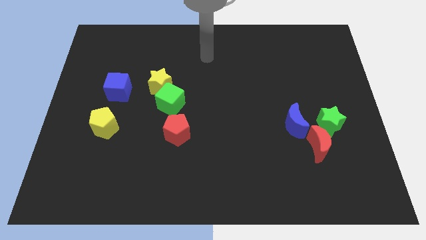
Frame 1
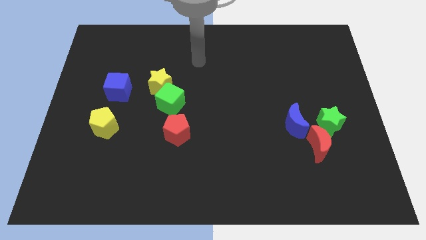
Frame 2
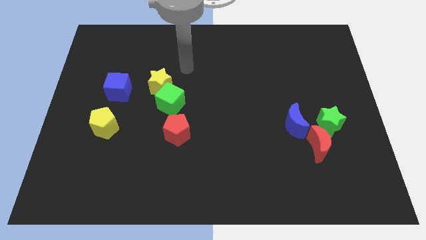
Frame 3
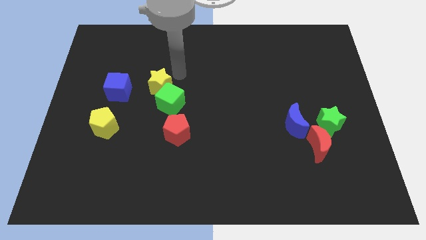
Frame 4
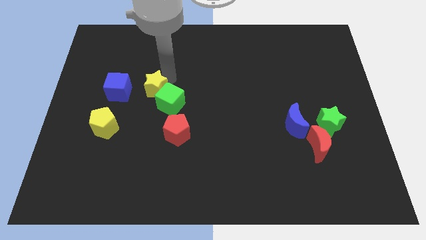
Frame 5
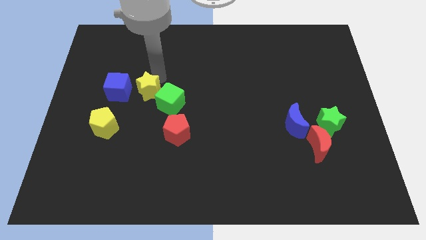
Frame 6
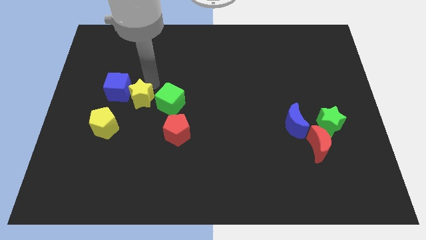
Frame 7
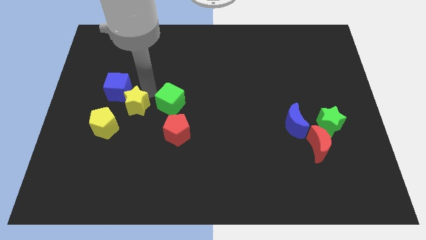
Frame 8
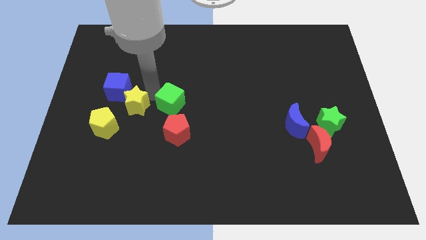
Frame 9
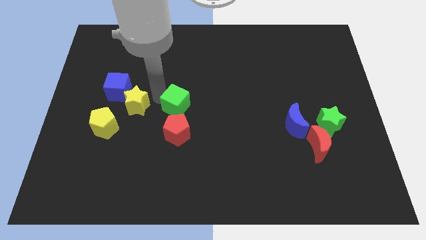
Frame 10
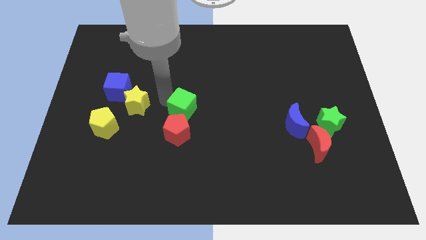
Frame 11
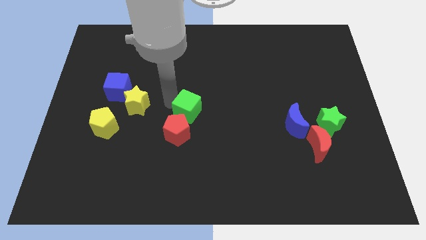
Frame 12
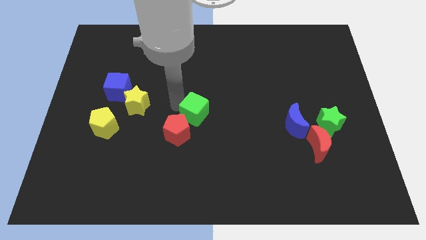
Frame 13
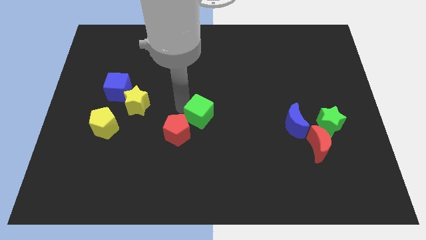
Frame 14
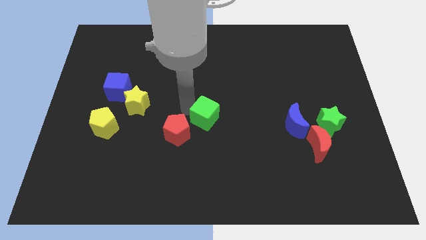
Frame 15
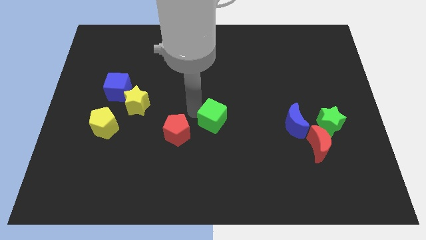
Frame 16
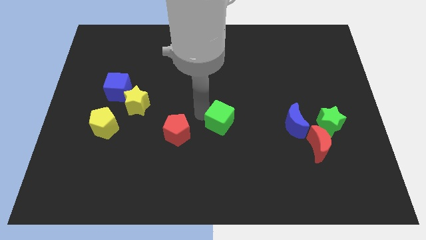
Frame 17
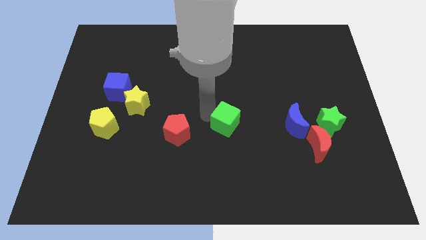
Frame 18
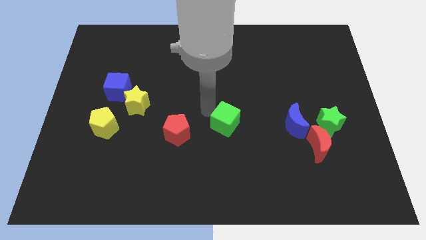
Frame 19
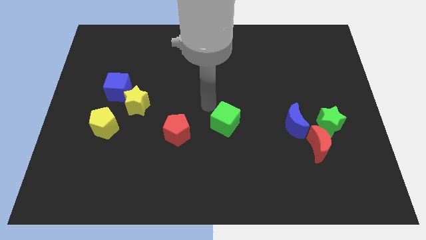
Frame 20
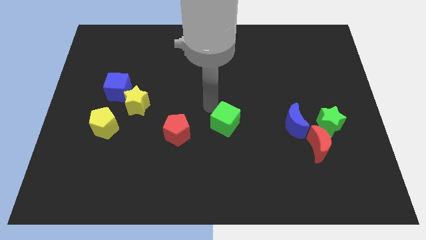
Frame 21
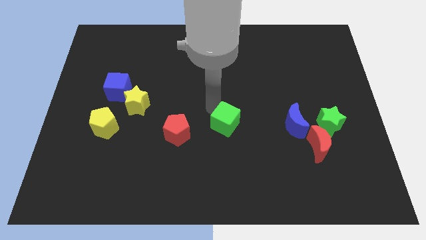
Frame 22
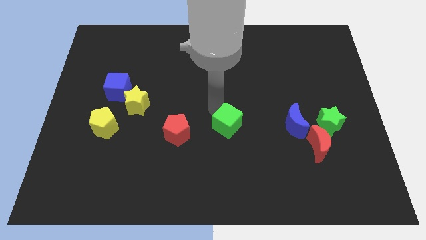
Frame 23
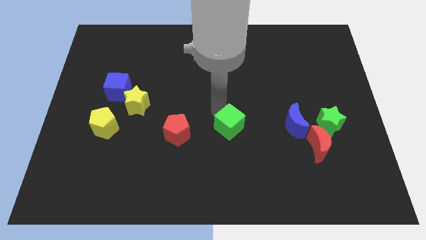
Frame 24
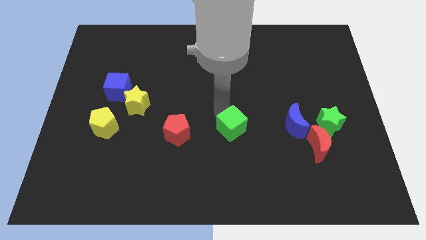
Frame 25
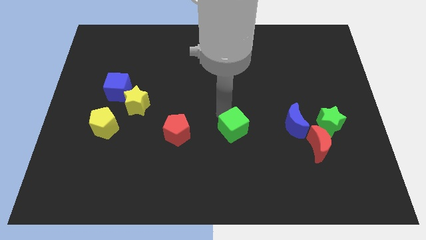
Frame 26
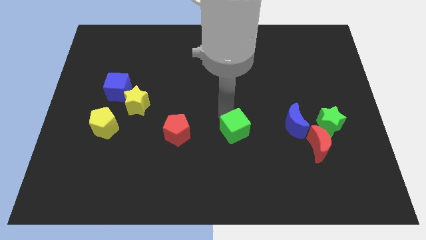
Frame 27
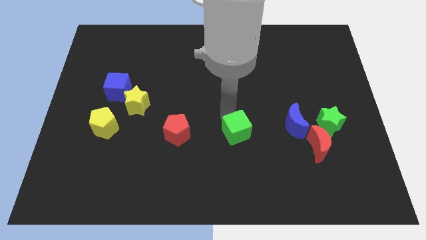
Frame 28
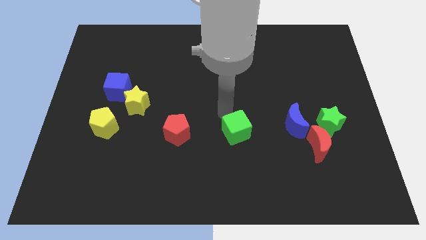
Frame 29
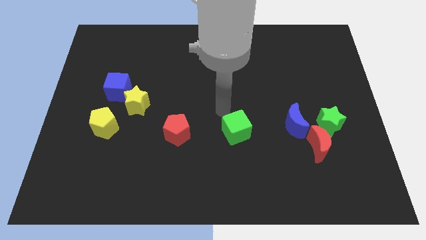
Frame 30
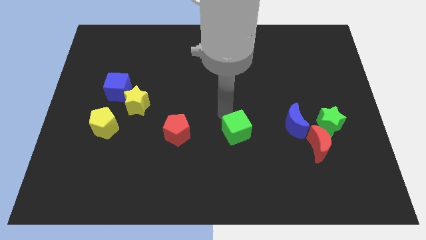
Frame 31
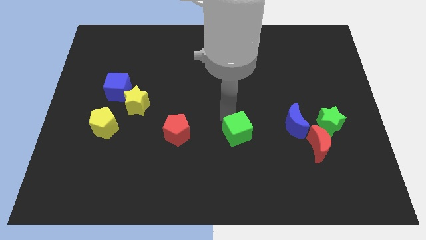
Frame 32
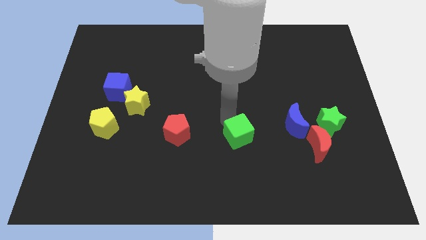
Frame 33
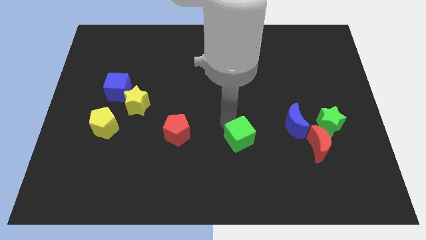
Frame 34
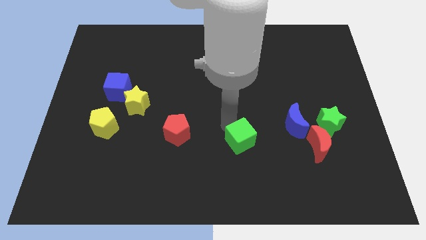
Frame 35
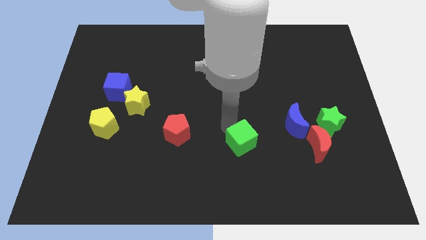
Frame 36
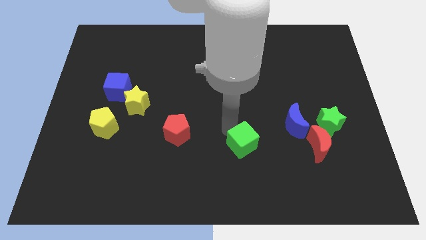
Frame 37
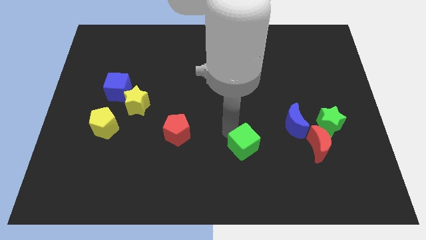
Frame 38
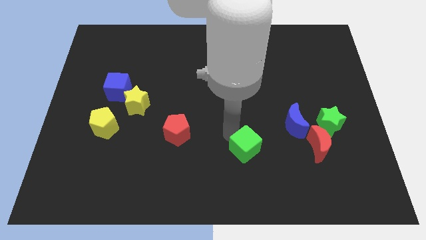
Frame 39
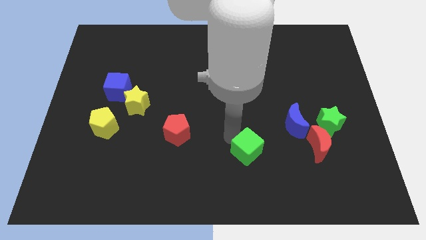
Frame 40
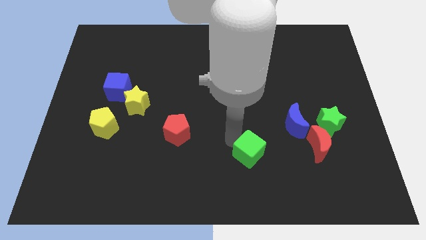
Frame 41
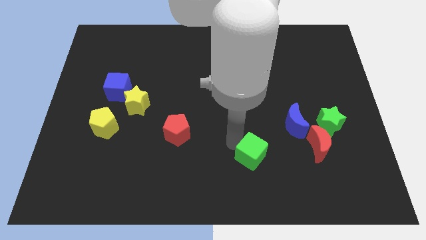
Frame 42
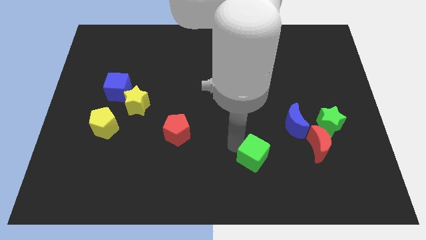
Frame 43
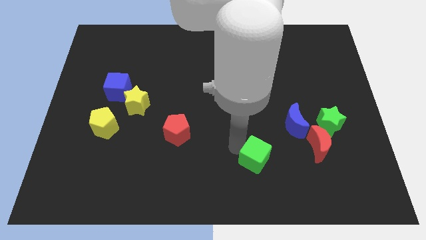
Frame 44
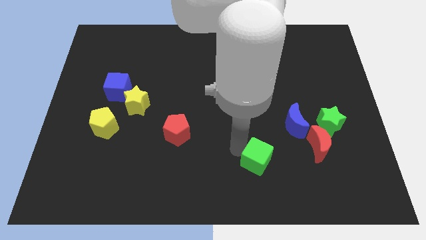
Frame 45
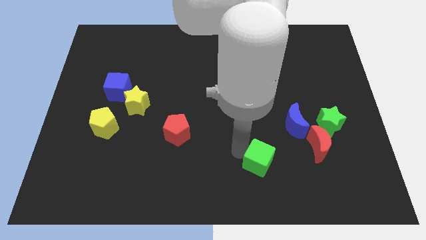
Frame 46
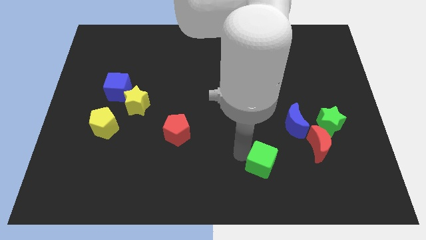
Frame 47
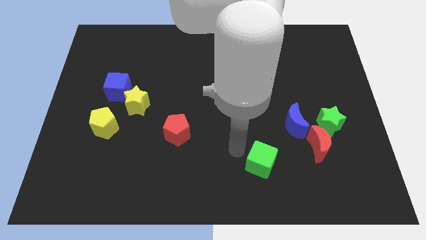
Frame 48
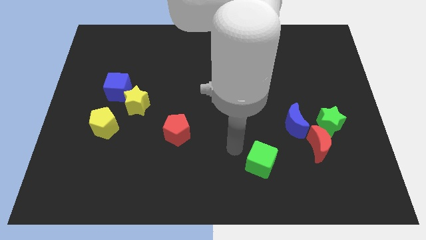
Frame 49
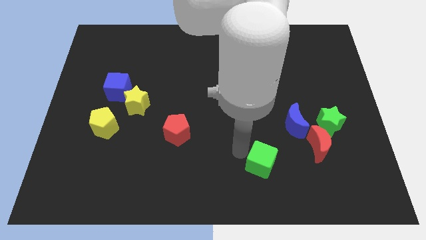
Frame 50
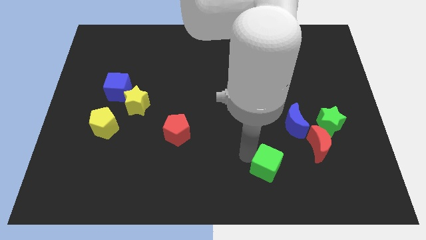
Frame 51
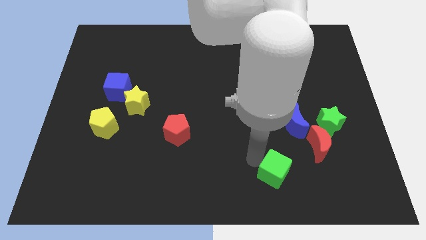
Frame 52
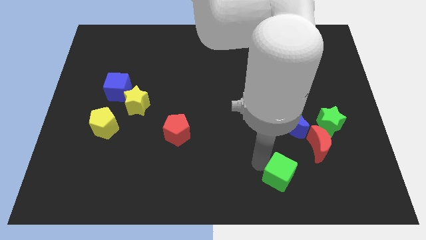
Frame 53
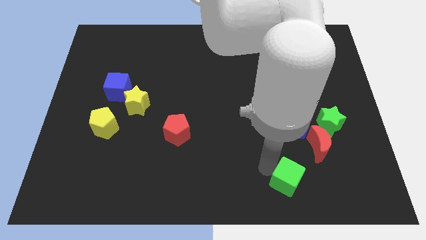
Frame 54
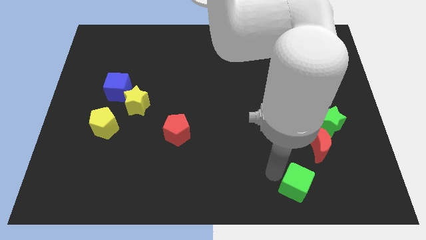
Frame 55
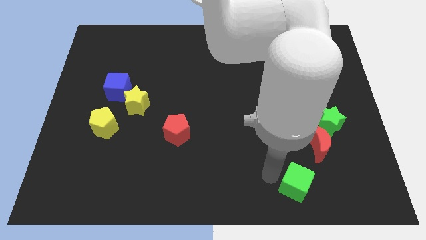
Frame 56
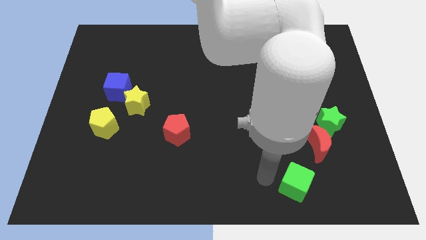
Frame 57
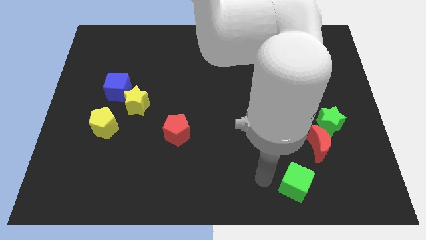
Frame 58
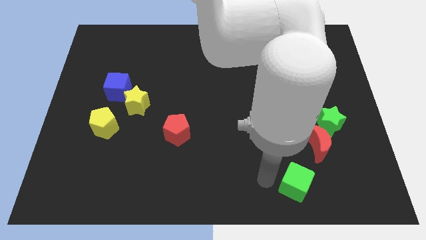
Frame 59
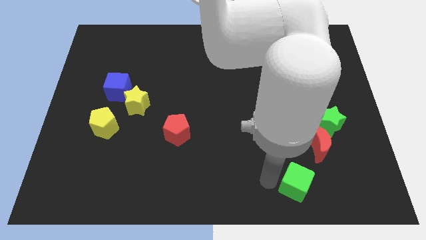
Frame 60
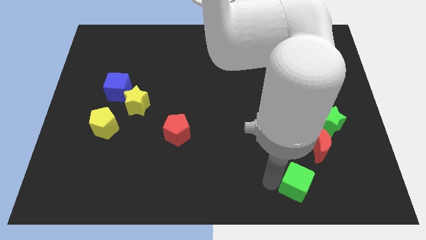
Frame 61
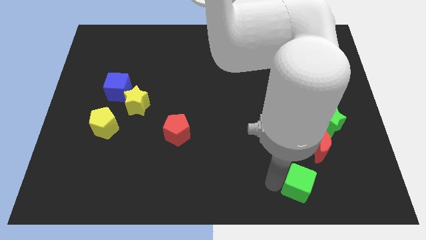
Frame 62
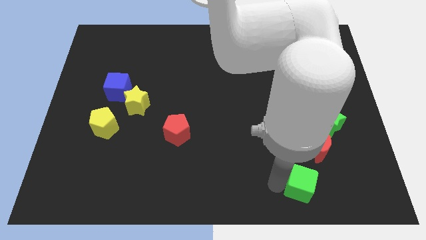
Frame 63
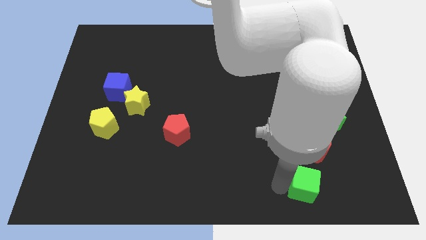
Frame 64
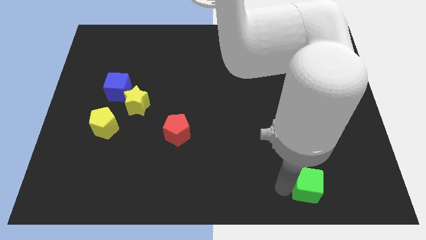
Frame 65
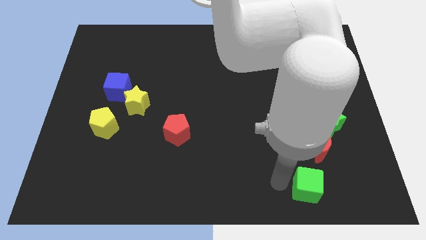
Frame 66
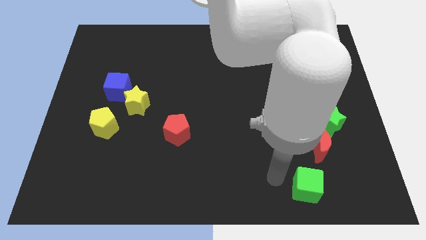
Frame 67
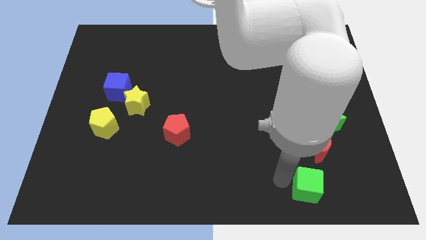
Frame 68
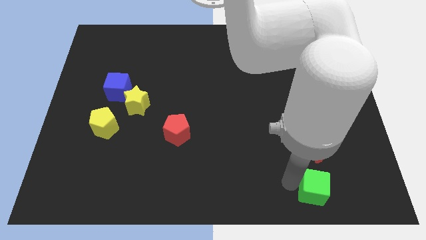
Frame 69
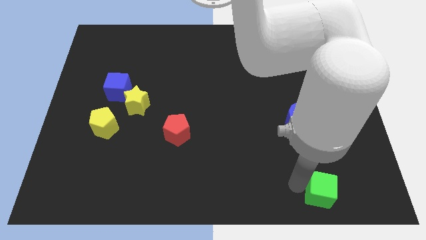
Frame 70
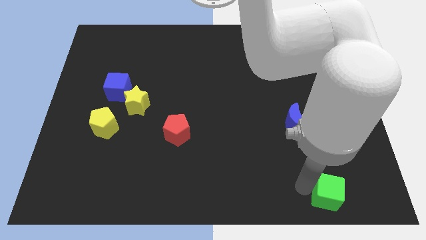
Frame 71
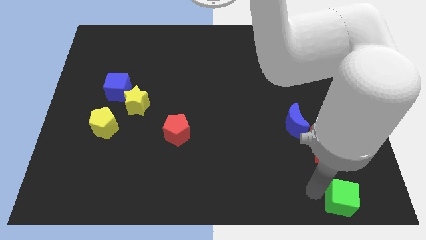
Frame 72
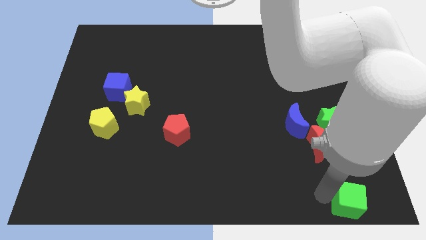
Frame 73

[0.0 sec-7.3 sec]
slide the green cube to the bottom right

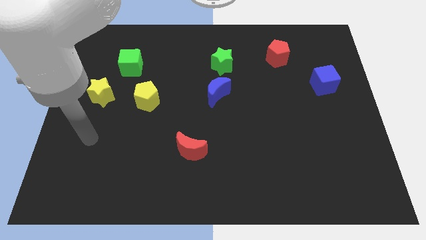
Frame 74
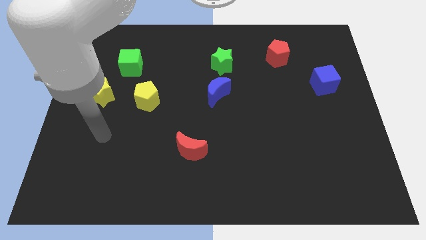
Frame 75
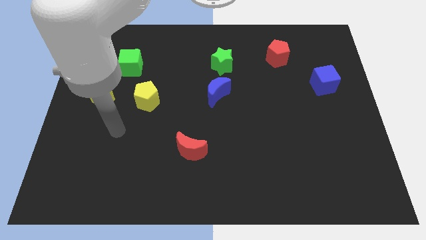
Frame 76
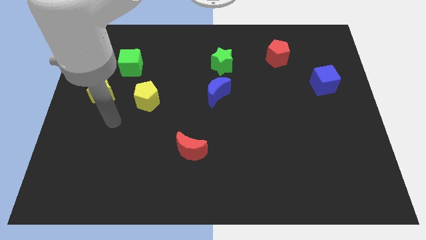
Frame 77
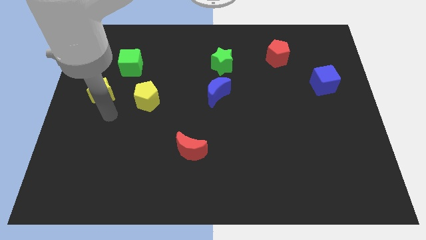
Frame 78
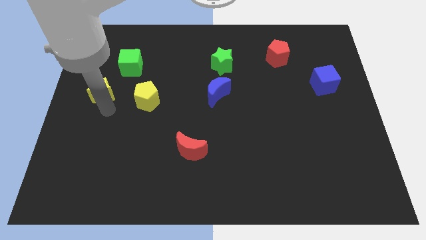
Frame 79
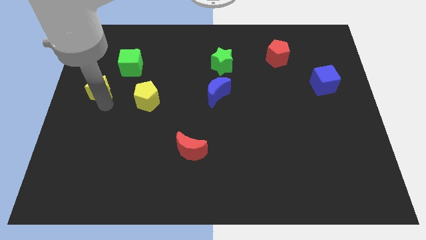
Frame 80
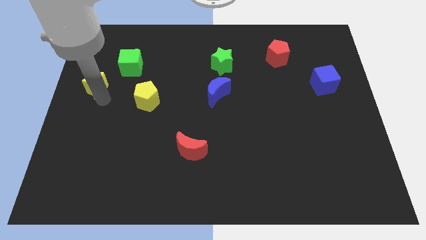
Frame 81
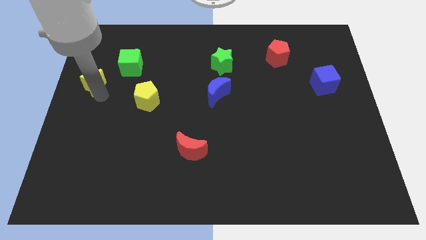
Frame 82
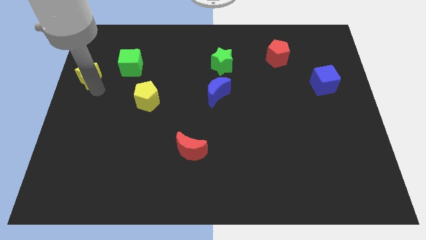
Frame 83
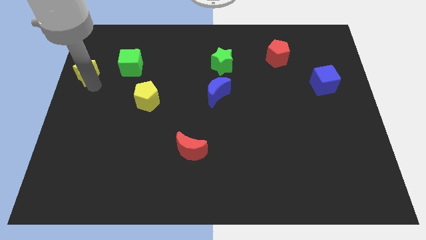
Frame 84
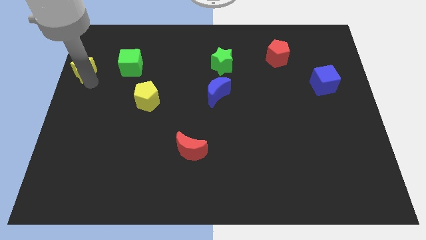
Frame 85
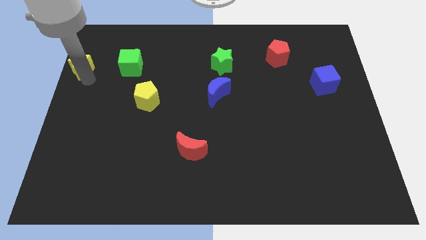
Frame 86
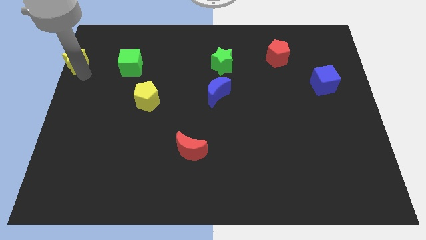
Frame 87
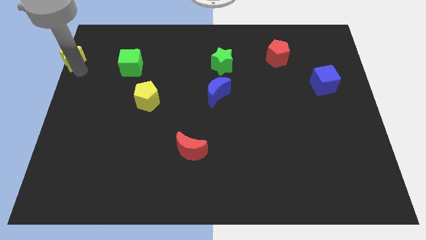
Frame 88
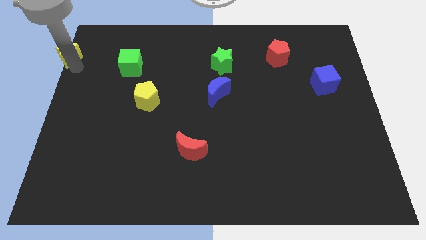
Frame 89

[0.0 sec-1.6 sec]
push the yellow star to the upper left corner
